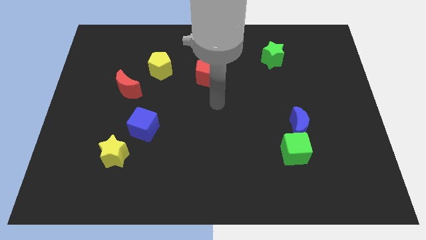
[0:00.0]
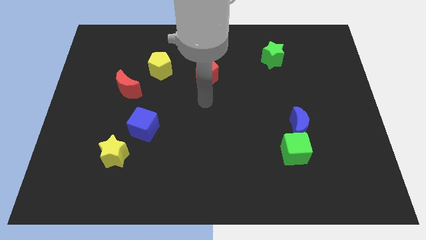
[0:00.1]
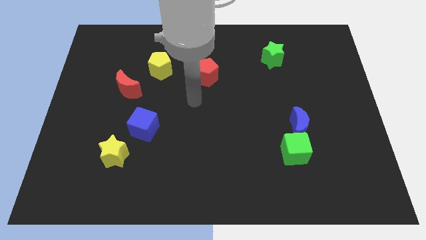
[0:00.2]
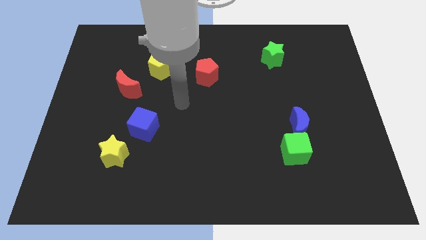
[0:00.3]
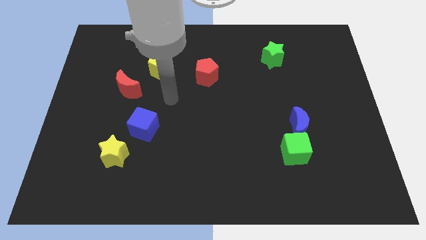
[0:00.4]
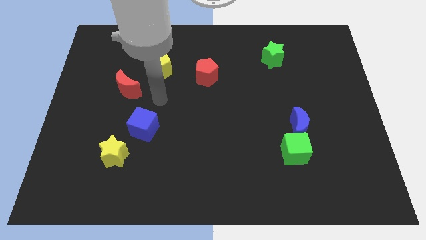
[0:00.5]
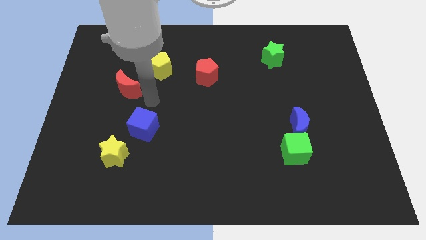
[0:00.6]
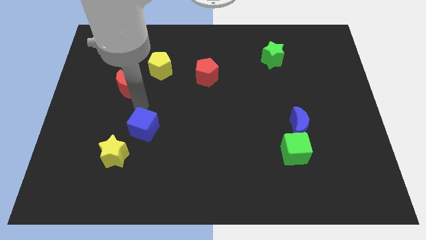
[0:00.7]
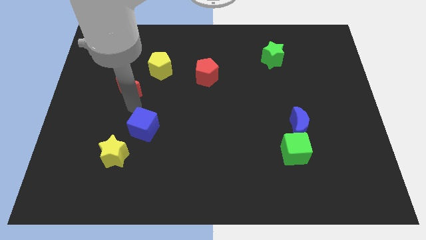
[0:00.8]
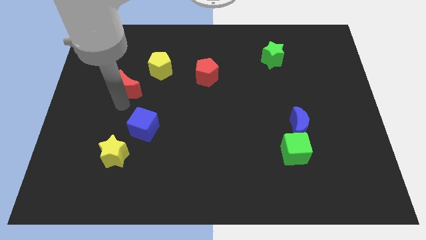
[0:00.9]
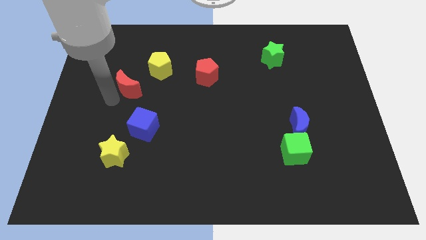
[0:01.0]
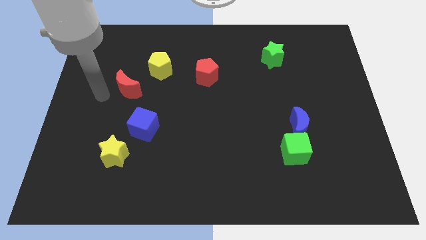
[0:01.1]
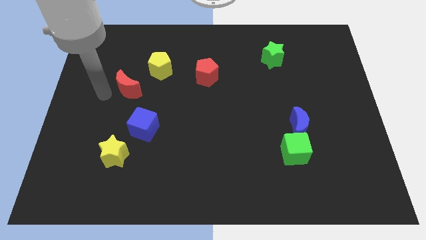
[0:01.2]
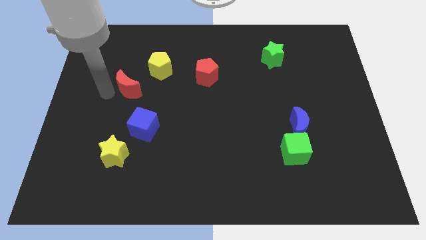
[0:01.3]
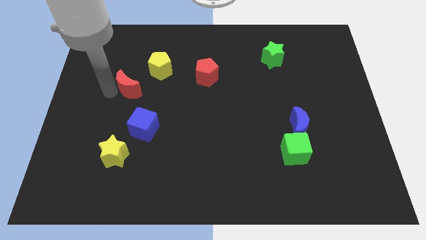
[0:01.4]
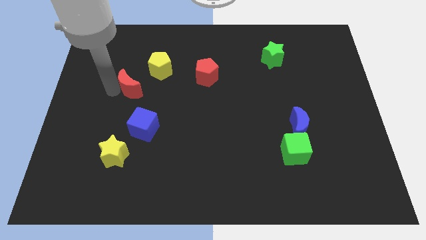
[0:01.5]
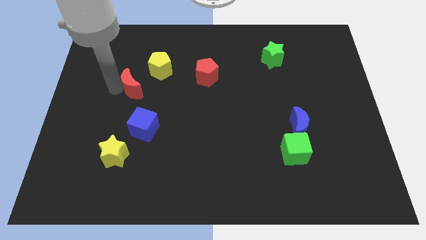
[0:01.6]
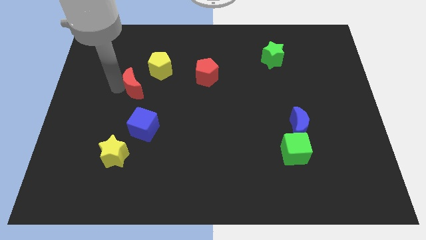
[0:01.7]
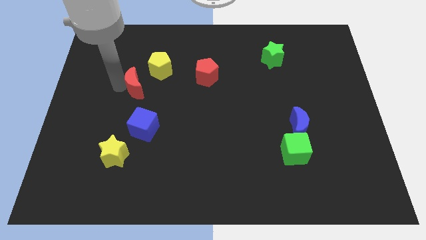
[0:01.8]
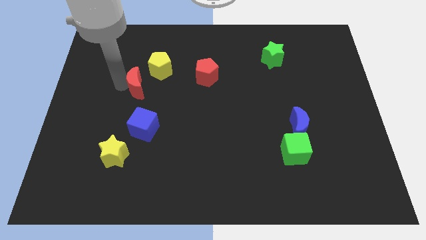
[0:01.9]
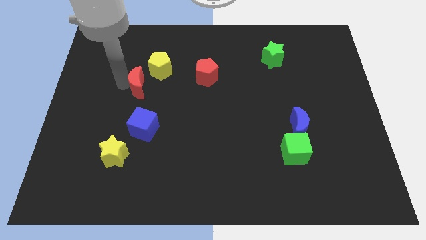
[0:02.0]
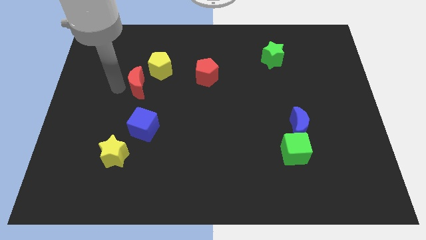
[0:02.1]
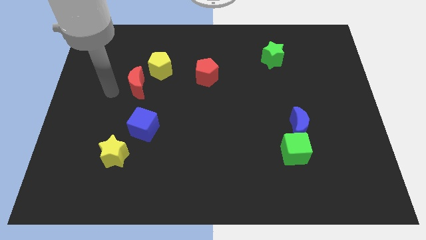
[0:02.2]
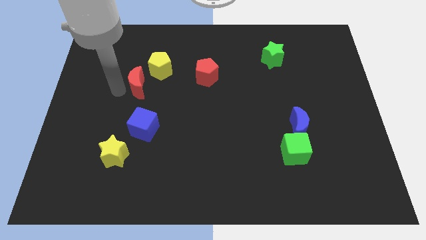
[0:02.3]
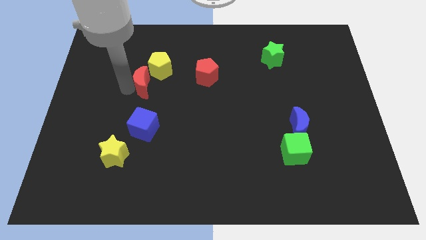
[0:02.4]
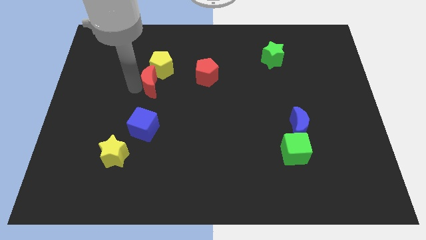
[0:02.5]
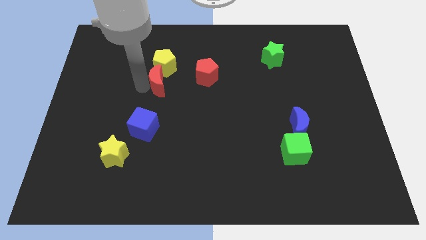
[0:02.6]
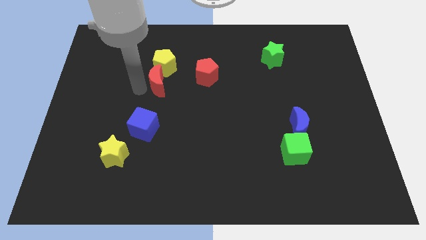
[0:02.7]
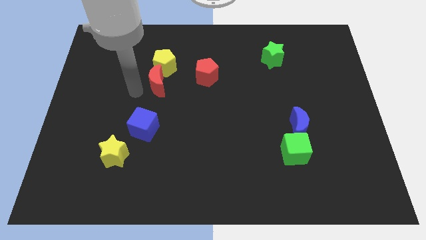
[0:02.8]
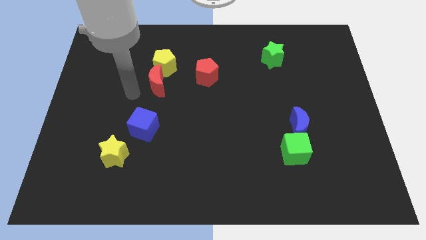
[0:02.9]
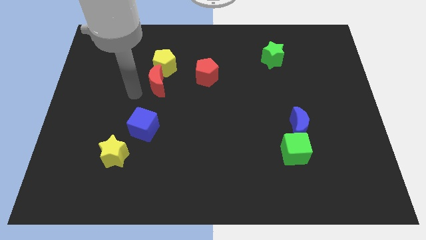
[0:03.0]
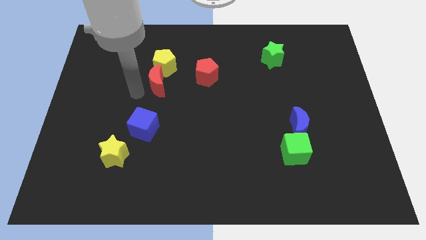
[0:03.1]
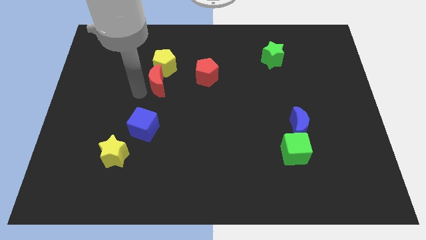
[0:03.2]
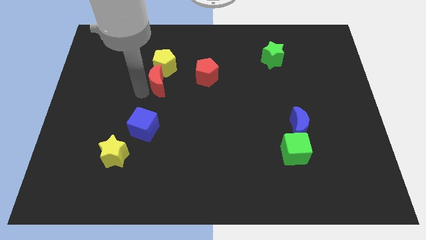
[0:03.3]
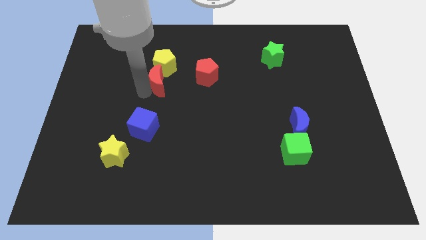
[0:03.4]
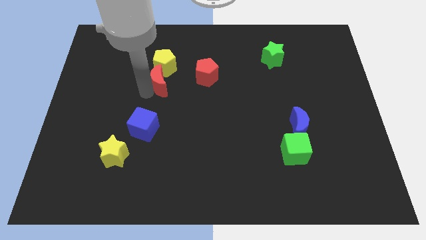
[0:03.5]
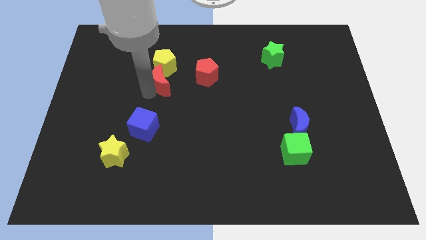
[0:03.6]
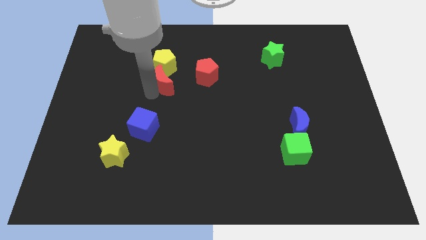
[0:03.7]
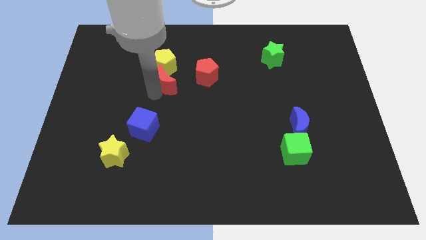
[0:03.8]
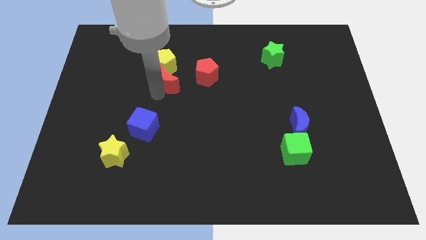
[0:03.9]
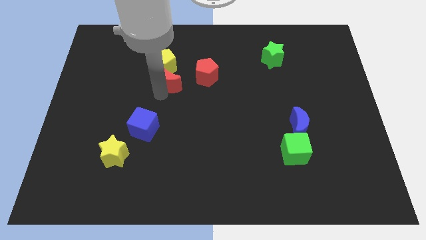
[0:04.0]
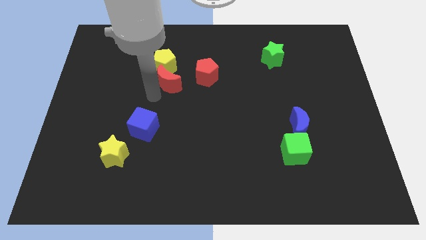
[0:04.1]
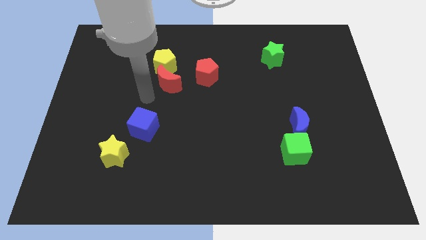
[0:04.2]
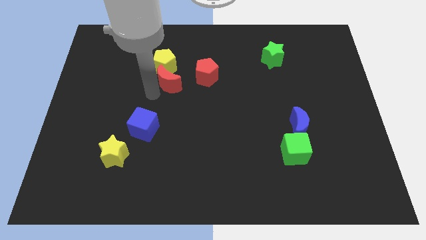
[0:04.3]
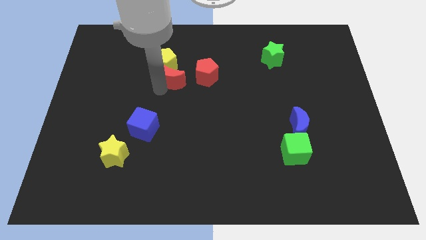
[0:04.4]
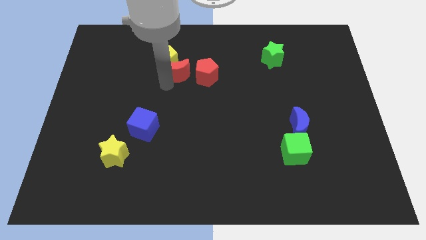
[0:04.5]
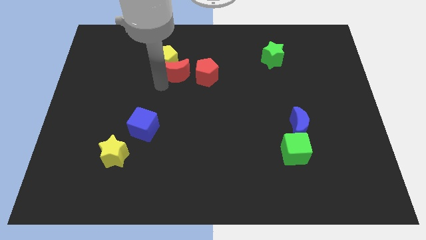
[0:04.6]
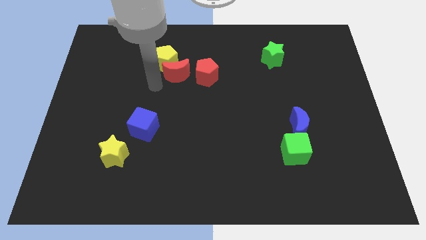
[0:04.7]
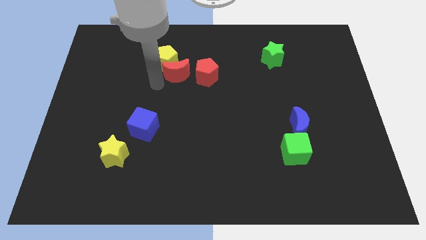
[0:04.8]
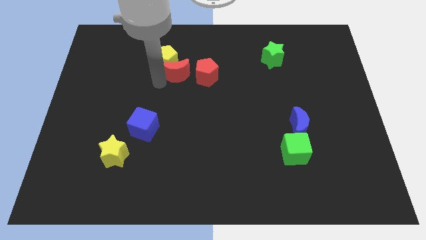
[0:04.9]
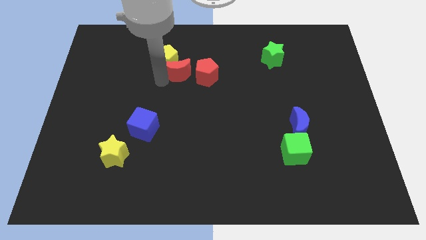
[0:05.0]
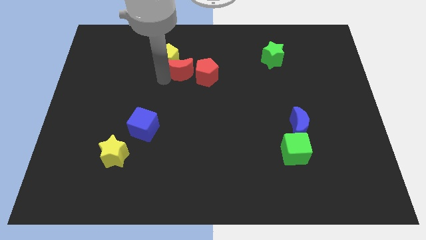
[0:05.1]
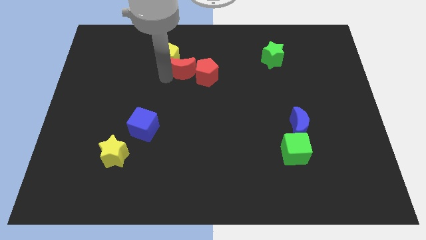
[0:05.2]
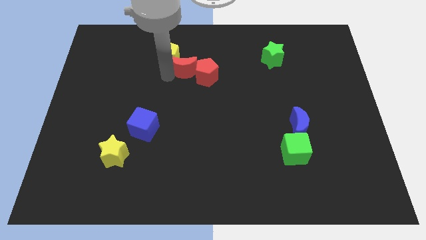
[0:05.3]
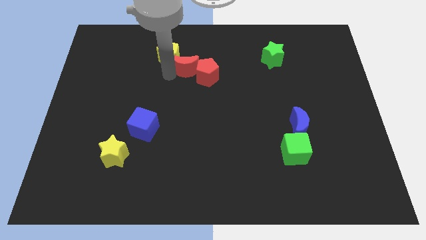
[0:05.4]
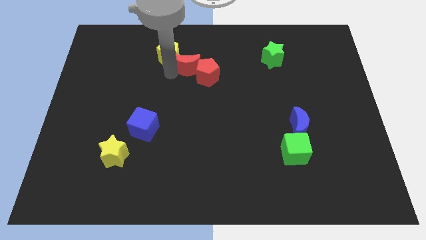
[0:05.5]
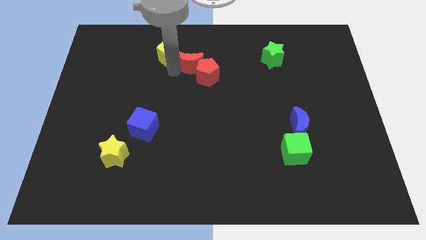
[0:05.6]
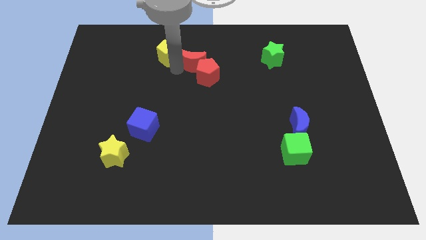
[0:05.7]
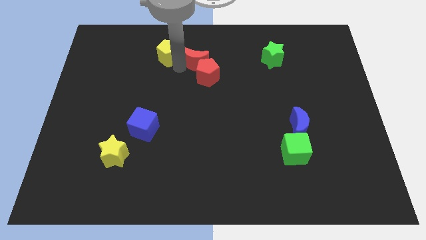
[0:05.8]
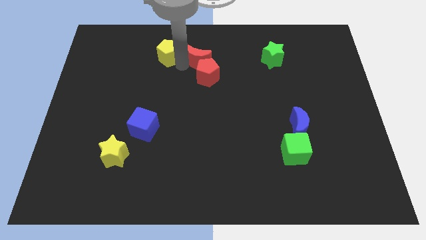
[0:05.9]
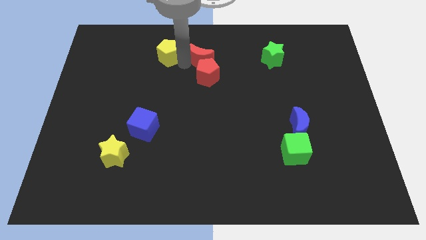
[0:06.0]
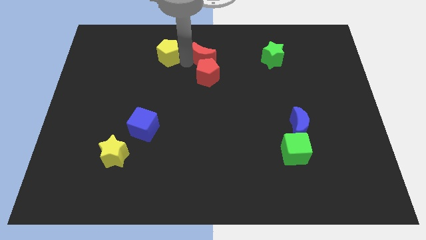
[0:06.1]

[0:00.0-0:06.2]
put the red moon to the top right of the red pentagon

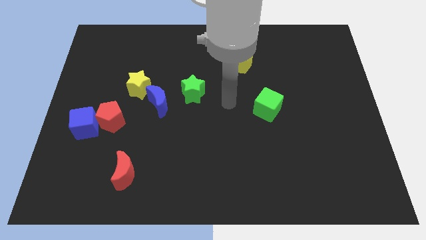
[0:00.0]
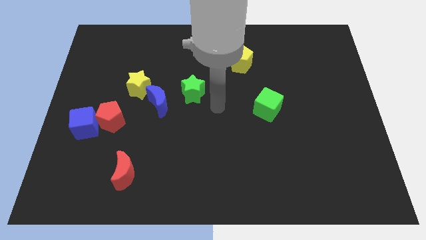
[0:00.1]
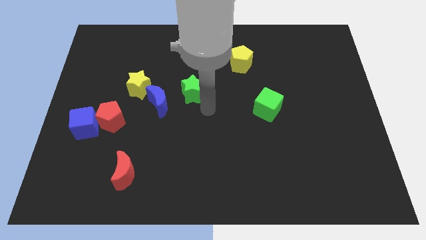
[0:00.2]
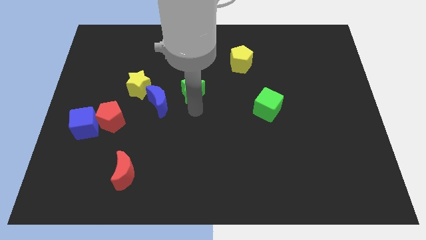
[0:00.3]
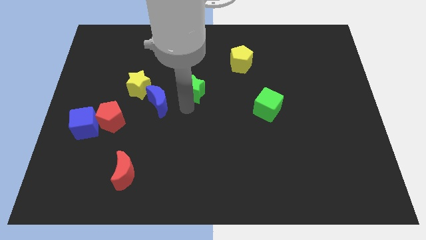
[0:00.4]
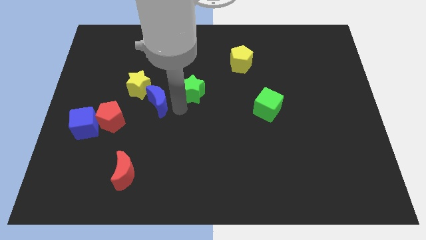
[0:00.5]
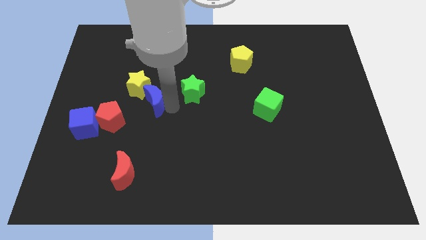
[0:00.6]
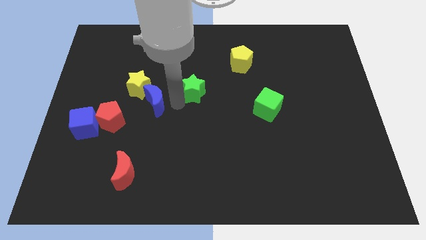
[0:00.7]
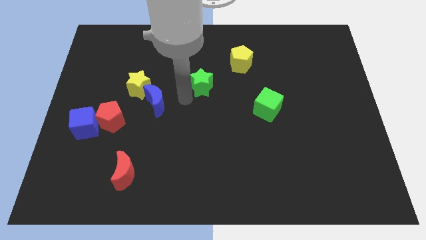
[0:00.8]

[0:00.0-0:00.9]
slide the green star diagonally down and to the left of the yellow pentagon
